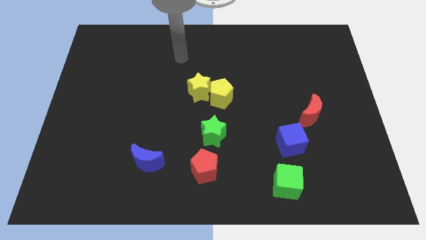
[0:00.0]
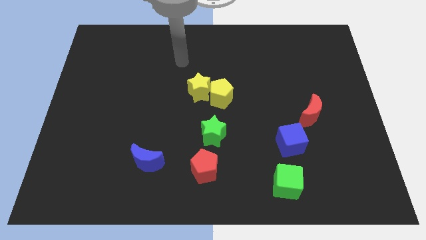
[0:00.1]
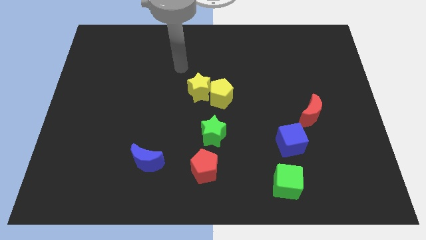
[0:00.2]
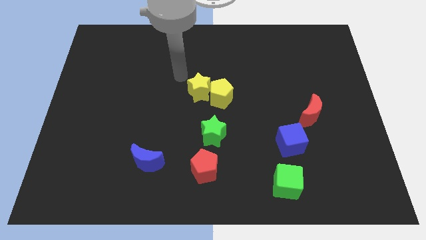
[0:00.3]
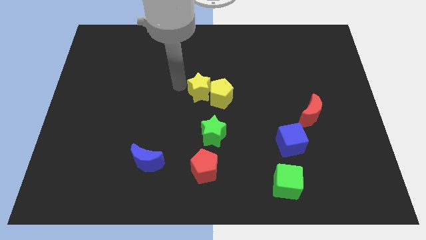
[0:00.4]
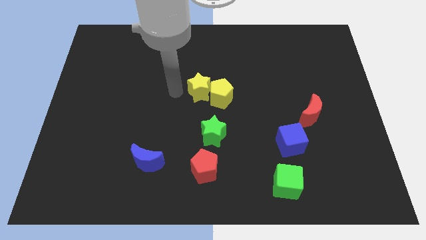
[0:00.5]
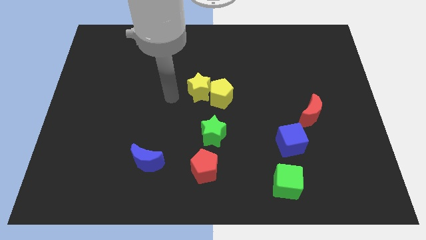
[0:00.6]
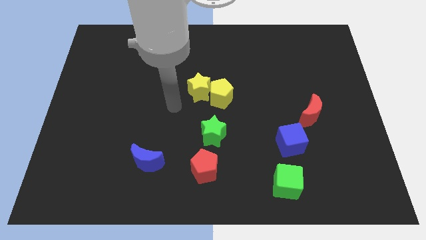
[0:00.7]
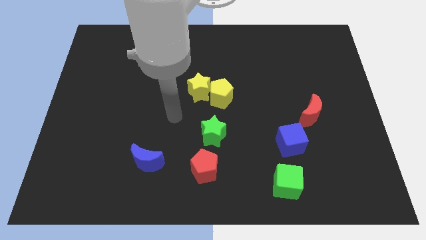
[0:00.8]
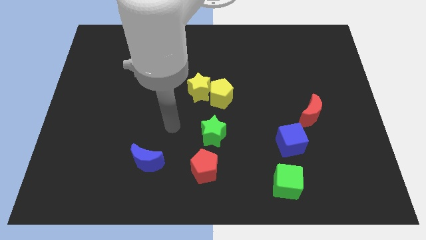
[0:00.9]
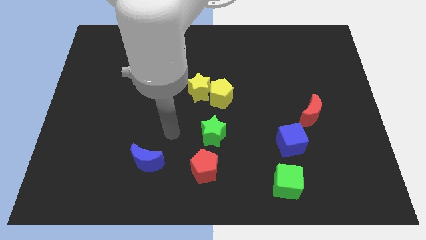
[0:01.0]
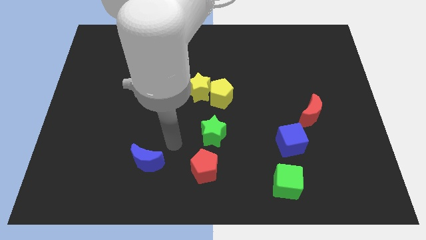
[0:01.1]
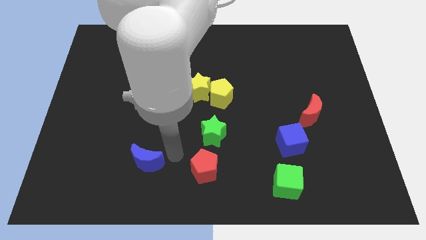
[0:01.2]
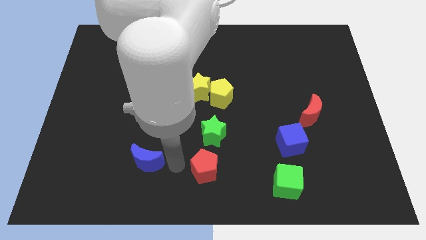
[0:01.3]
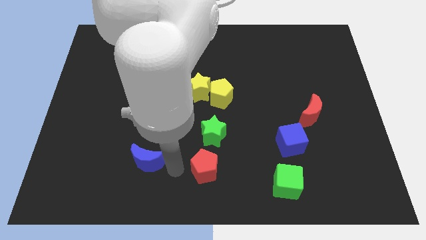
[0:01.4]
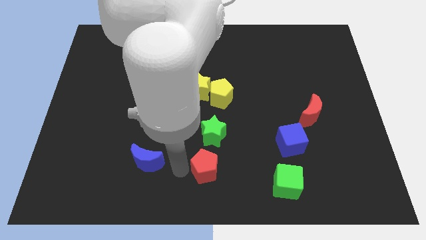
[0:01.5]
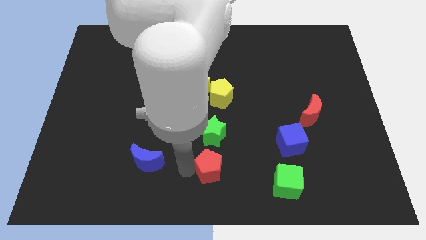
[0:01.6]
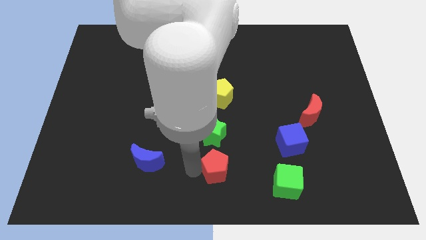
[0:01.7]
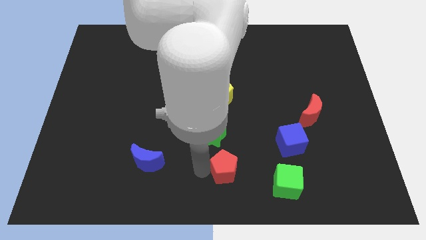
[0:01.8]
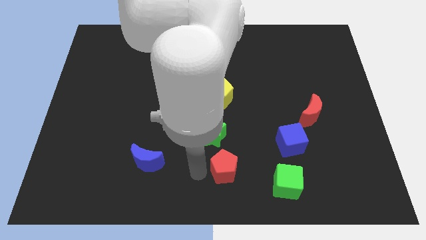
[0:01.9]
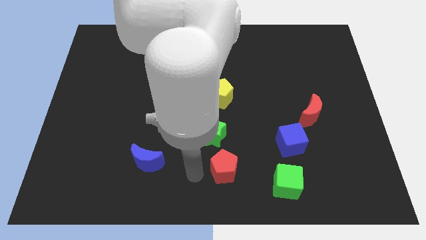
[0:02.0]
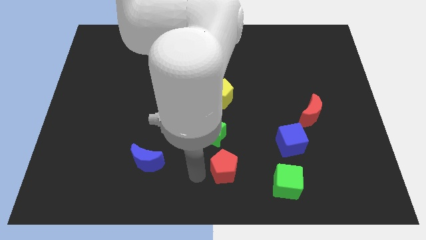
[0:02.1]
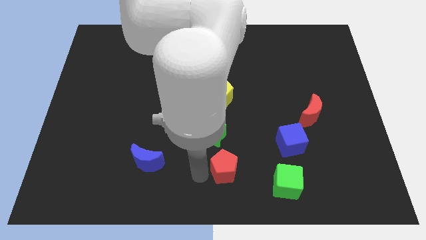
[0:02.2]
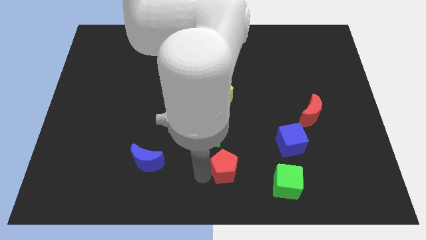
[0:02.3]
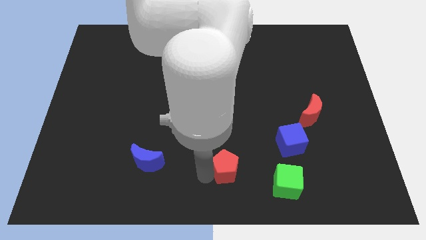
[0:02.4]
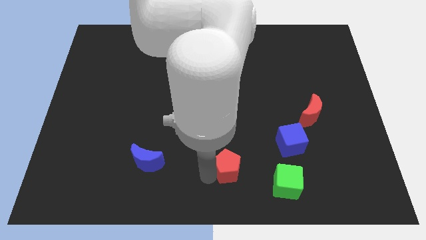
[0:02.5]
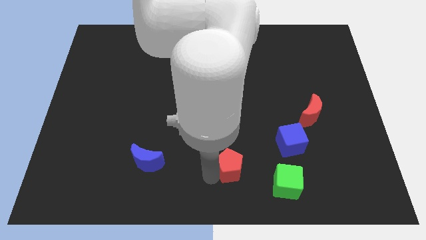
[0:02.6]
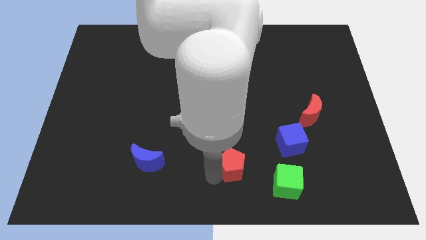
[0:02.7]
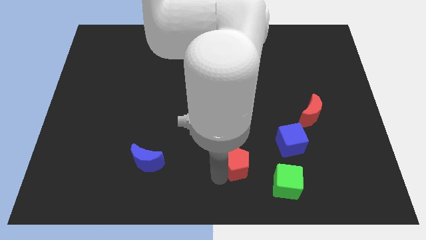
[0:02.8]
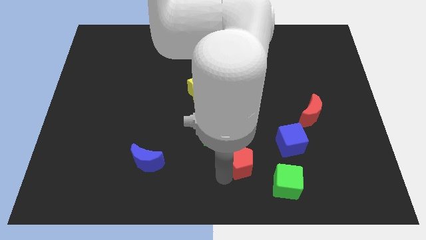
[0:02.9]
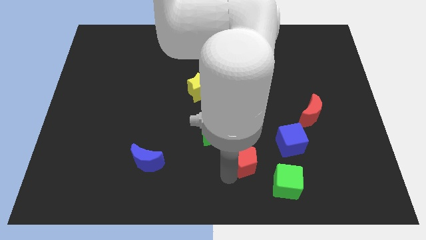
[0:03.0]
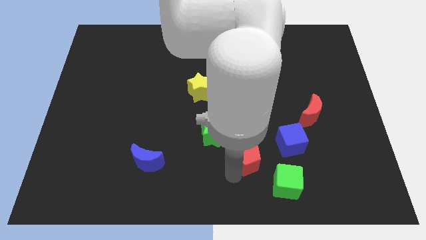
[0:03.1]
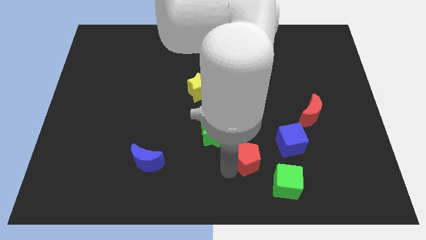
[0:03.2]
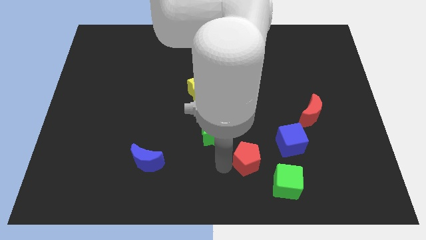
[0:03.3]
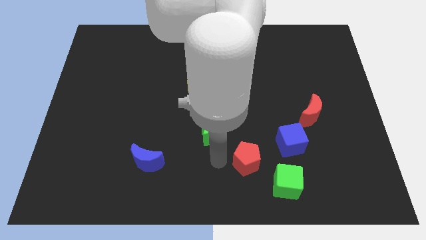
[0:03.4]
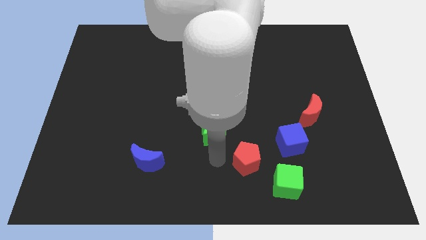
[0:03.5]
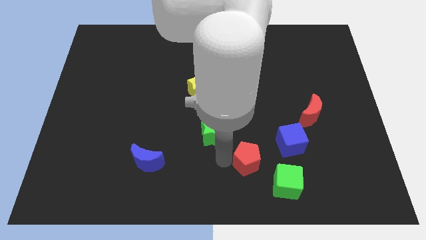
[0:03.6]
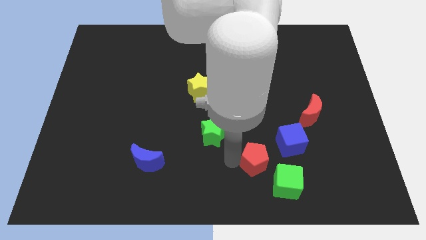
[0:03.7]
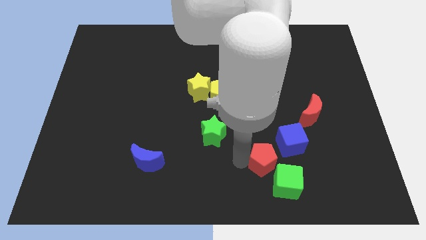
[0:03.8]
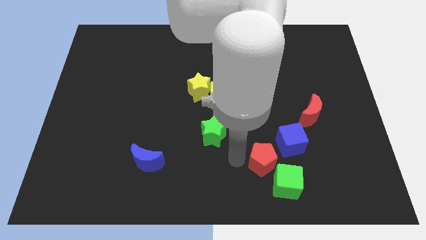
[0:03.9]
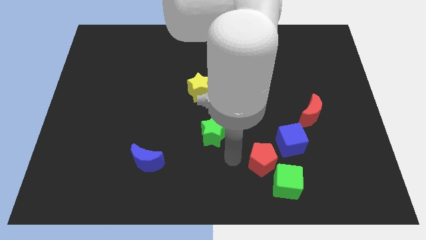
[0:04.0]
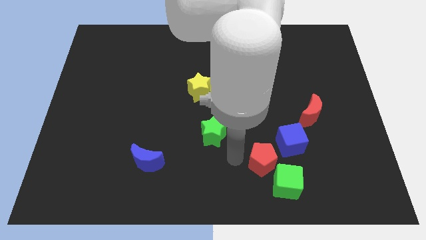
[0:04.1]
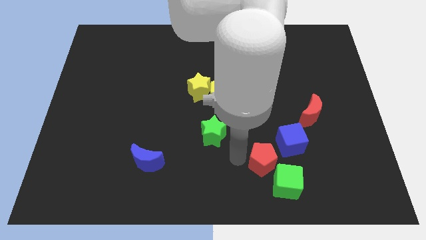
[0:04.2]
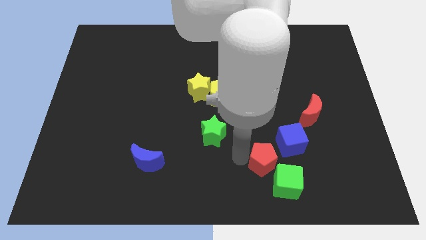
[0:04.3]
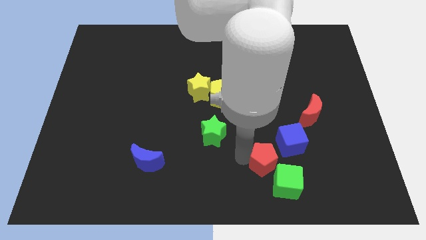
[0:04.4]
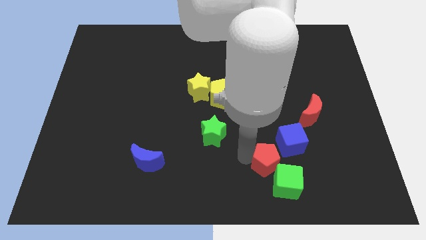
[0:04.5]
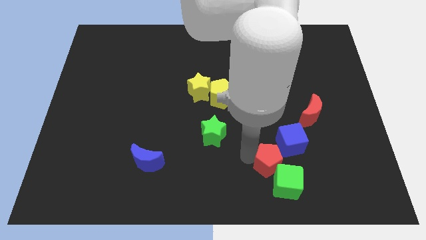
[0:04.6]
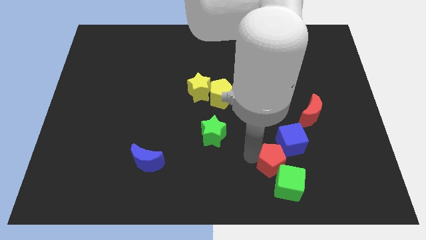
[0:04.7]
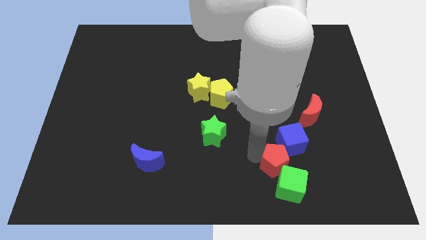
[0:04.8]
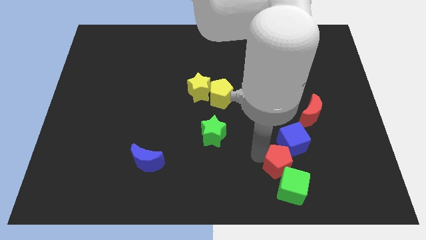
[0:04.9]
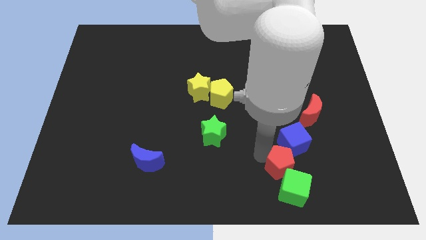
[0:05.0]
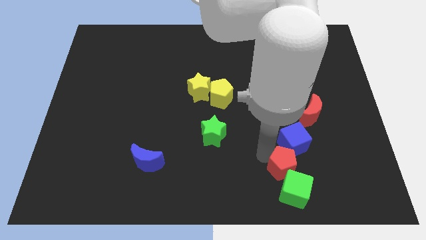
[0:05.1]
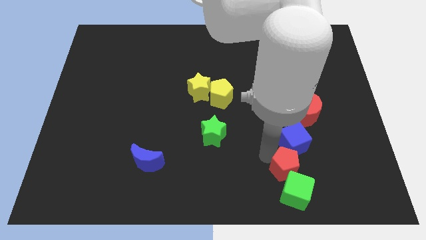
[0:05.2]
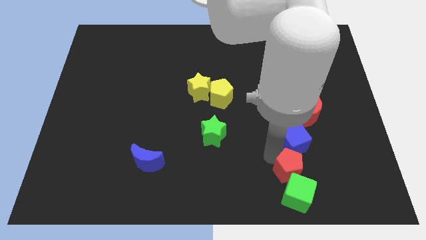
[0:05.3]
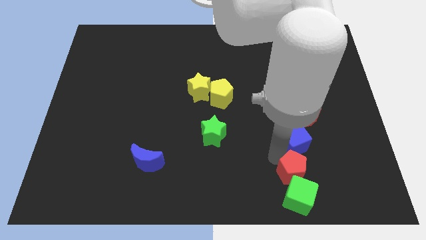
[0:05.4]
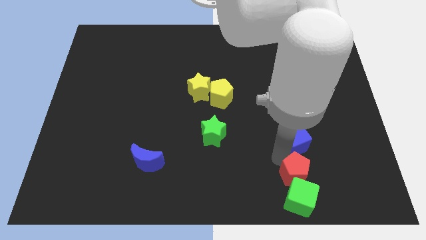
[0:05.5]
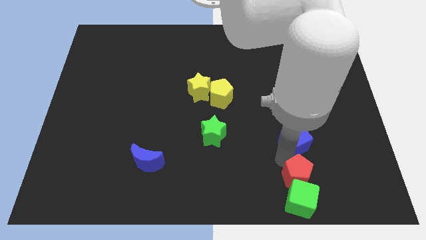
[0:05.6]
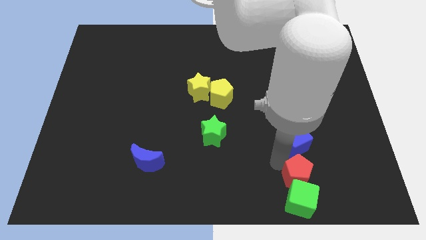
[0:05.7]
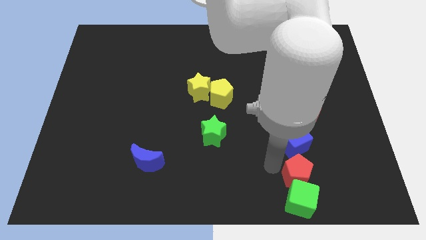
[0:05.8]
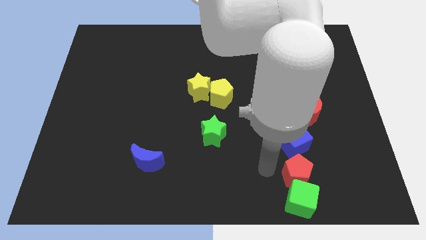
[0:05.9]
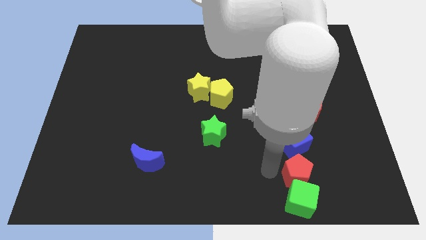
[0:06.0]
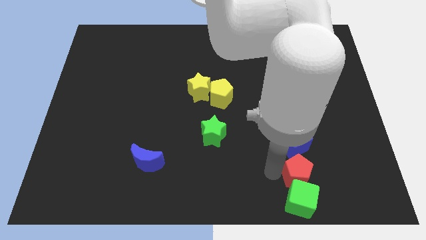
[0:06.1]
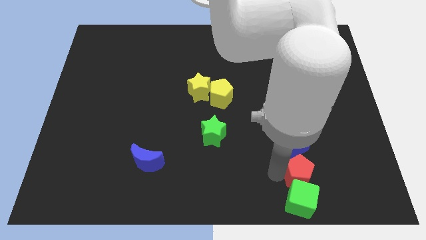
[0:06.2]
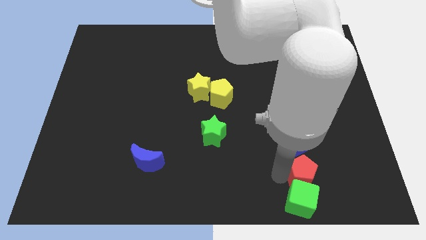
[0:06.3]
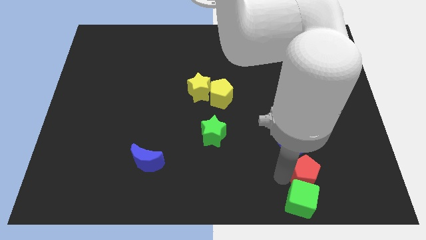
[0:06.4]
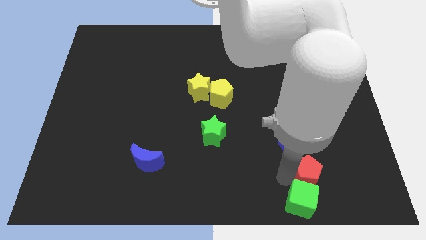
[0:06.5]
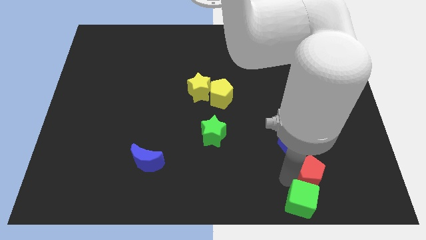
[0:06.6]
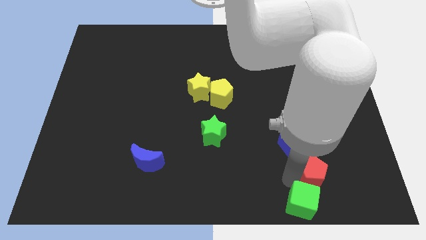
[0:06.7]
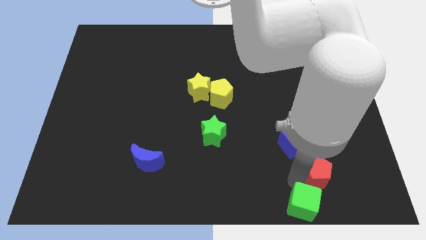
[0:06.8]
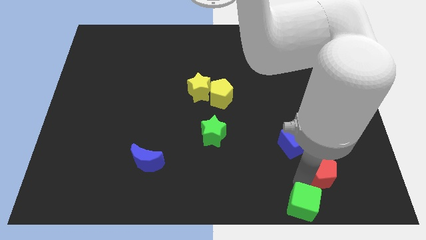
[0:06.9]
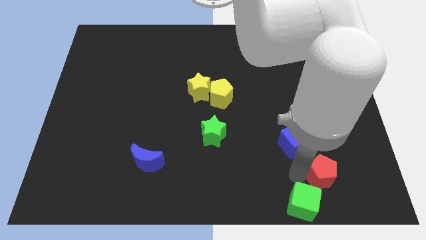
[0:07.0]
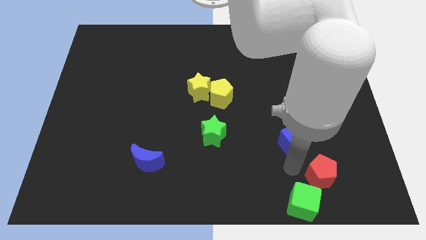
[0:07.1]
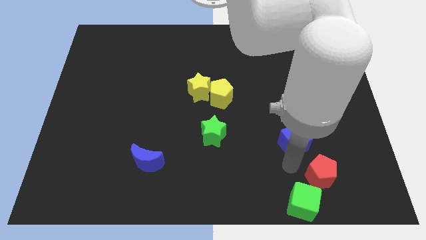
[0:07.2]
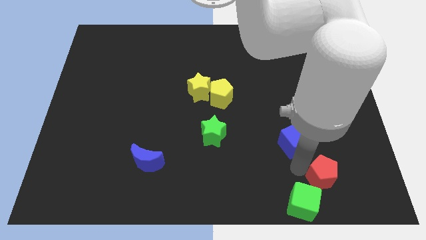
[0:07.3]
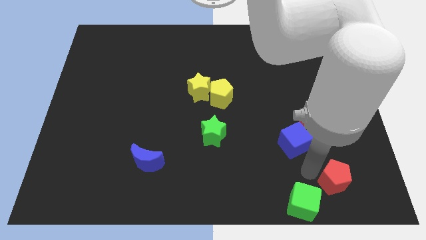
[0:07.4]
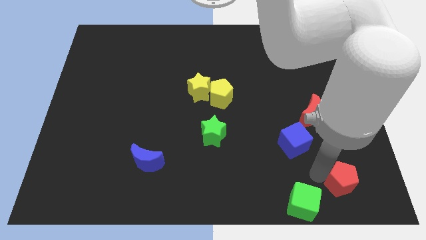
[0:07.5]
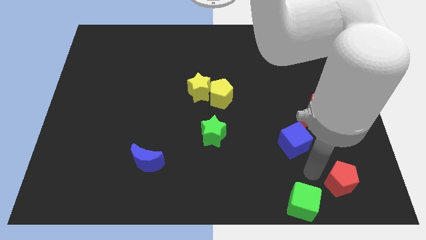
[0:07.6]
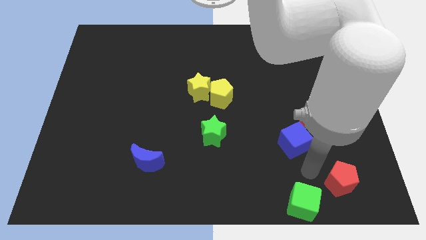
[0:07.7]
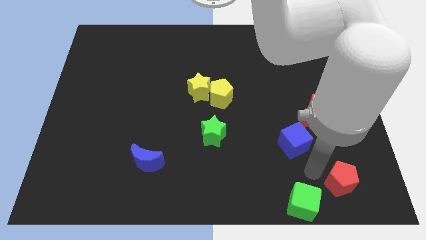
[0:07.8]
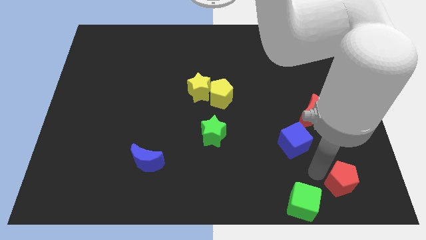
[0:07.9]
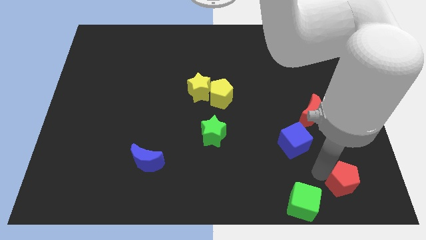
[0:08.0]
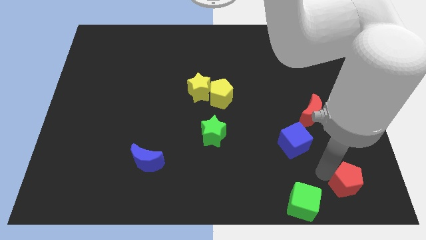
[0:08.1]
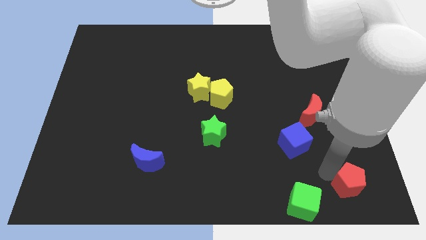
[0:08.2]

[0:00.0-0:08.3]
put the red pentagon to the bottom right of the board
